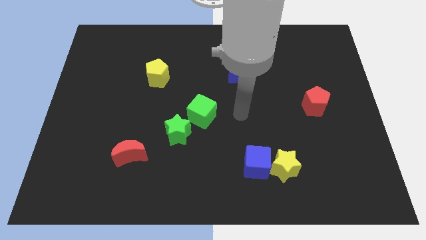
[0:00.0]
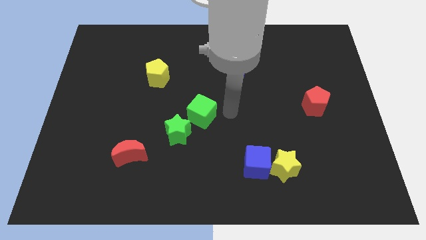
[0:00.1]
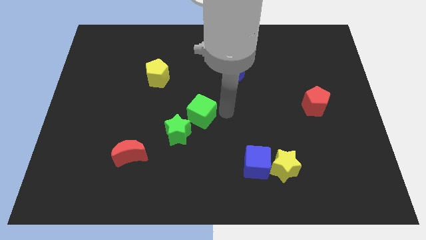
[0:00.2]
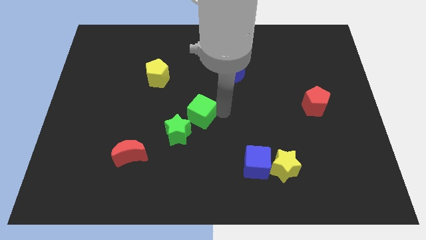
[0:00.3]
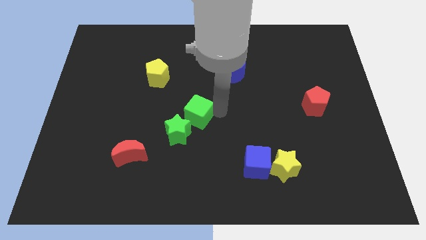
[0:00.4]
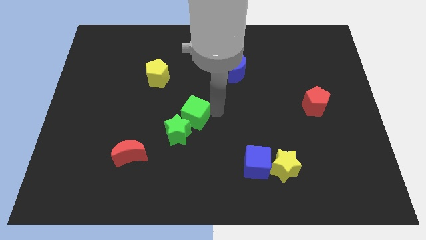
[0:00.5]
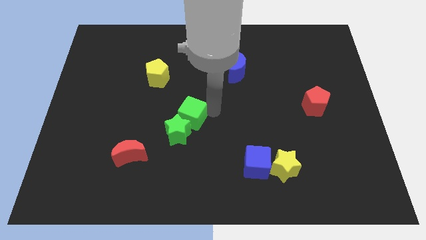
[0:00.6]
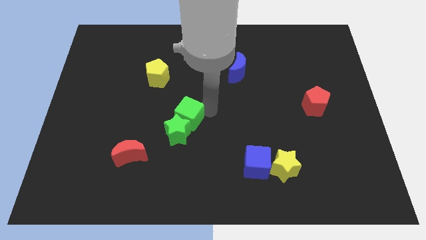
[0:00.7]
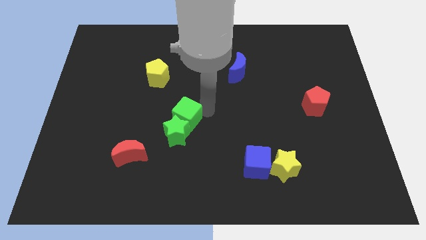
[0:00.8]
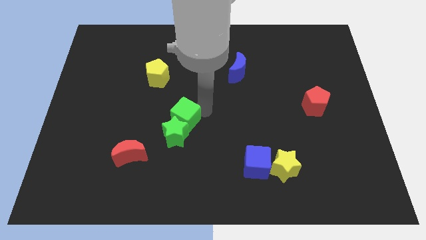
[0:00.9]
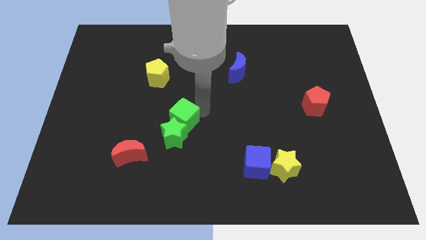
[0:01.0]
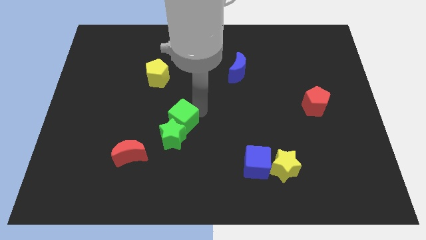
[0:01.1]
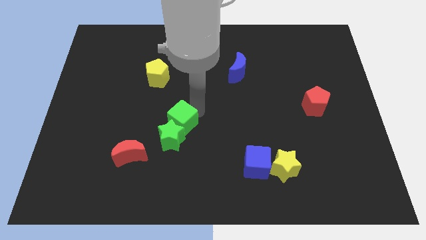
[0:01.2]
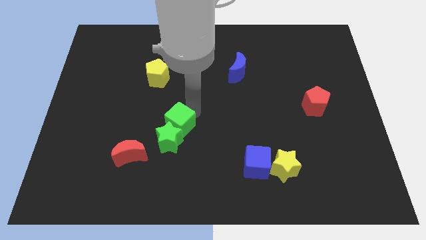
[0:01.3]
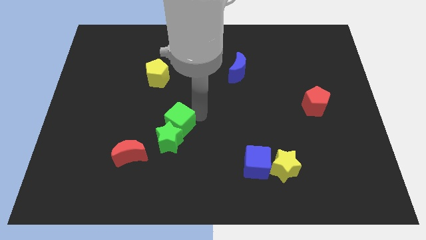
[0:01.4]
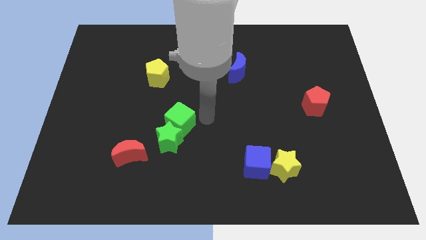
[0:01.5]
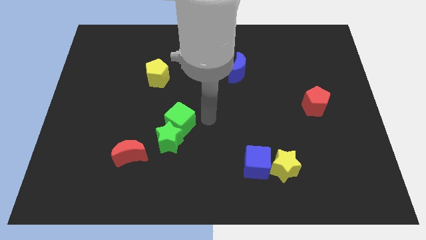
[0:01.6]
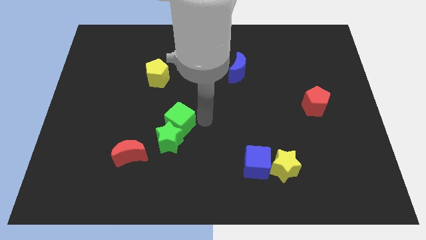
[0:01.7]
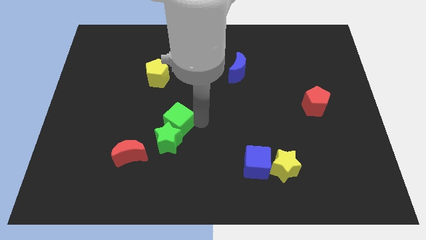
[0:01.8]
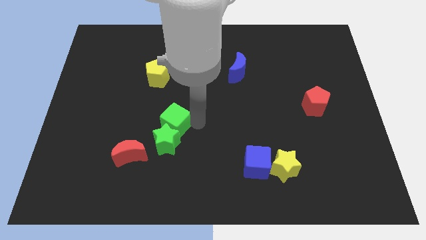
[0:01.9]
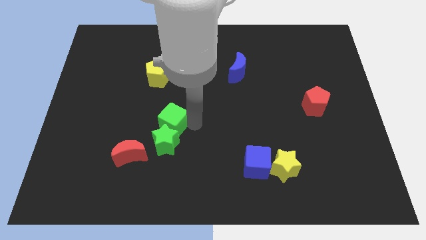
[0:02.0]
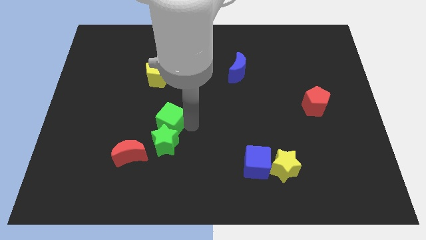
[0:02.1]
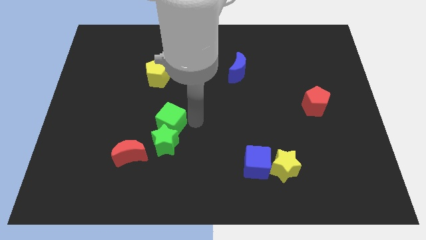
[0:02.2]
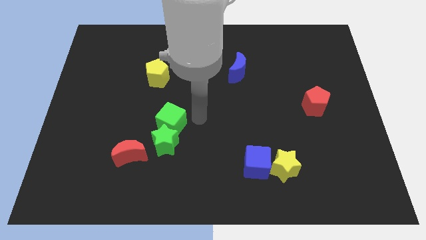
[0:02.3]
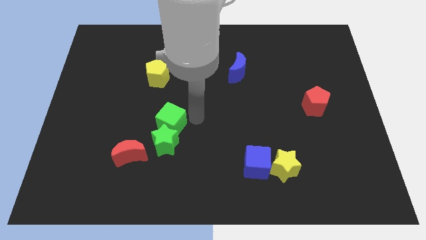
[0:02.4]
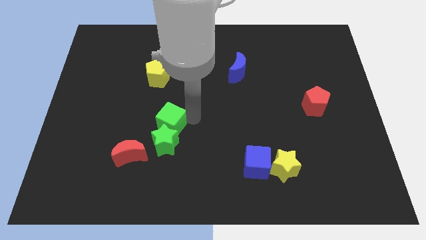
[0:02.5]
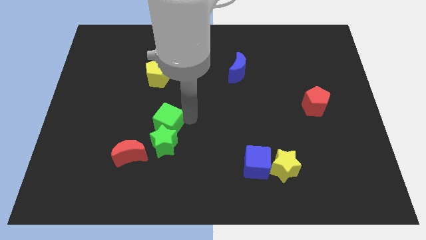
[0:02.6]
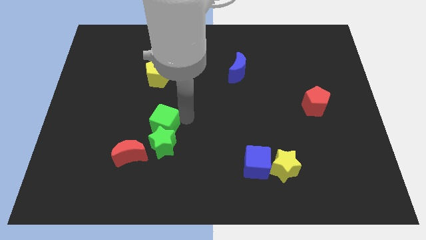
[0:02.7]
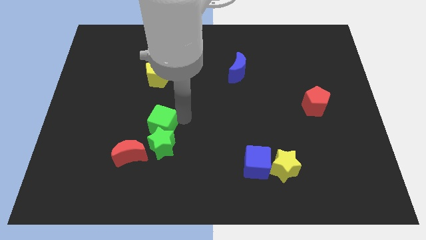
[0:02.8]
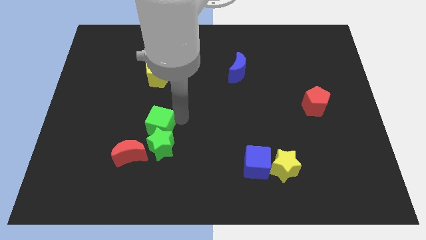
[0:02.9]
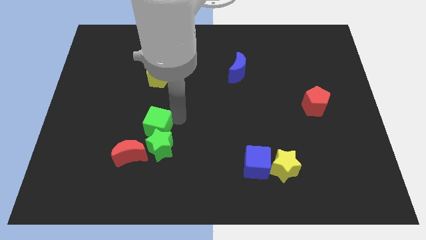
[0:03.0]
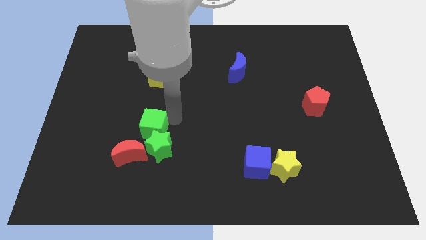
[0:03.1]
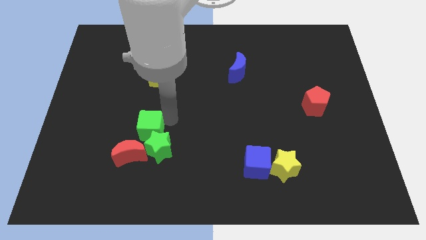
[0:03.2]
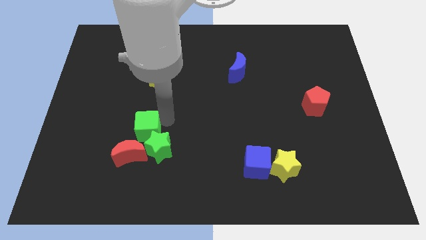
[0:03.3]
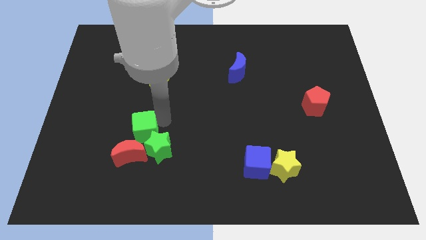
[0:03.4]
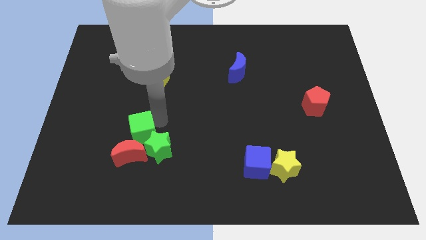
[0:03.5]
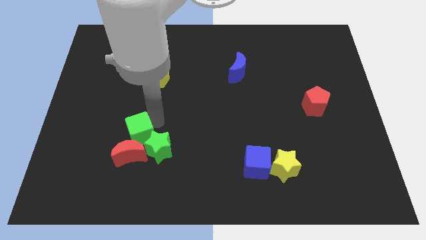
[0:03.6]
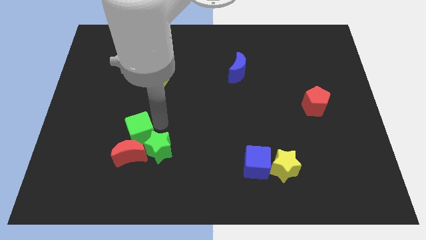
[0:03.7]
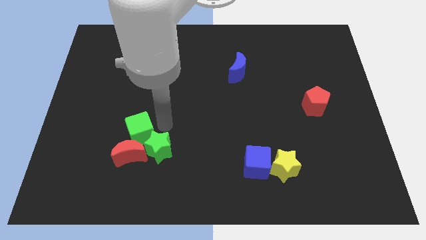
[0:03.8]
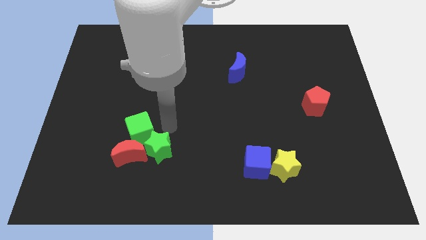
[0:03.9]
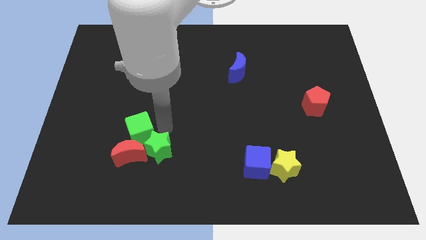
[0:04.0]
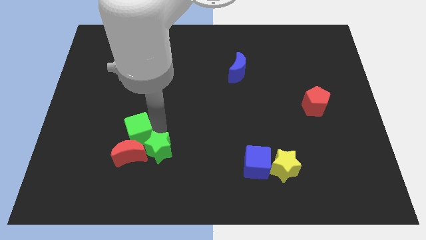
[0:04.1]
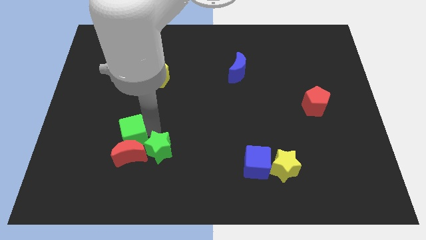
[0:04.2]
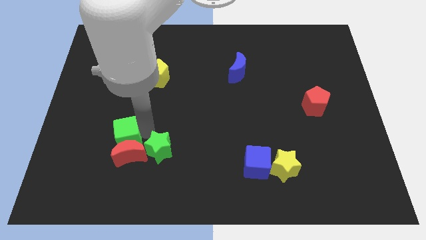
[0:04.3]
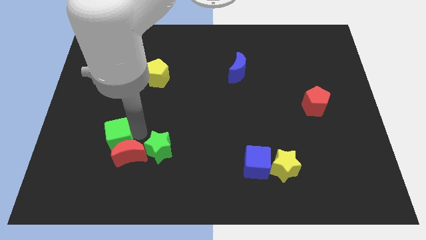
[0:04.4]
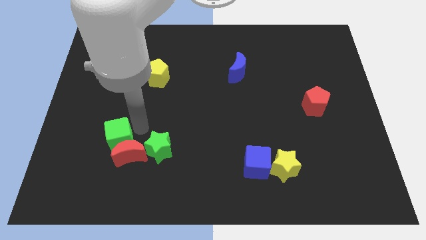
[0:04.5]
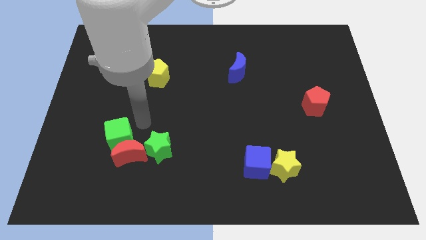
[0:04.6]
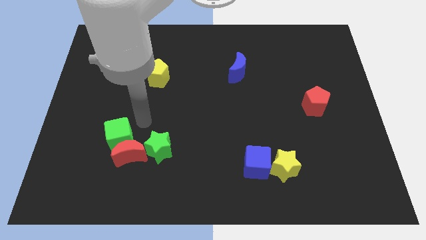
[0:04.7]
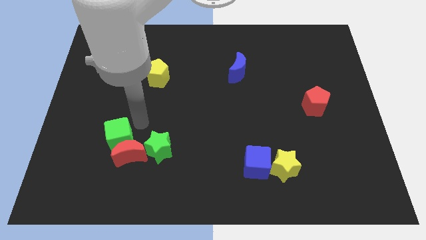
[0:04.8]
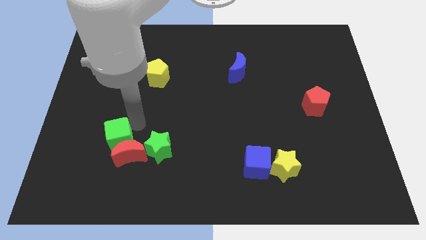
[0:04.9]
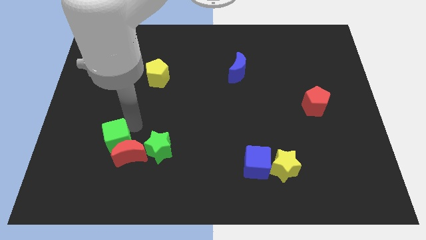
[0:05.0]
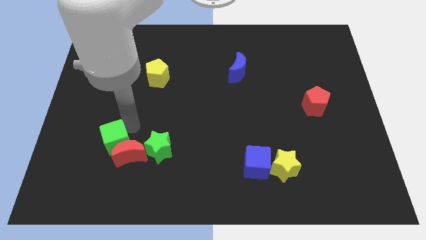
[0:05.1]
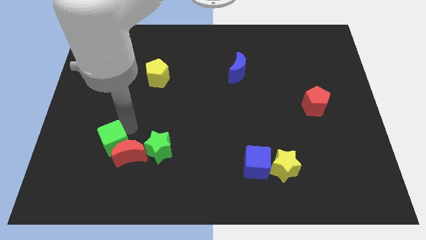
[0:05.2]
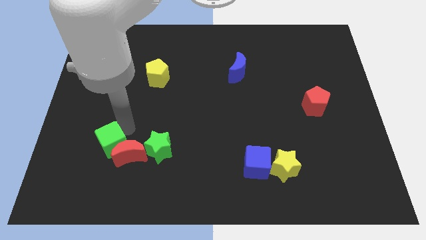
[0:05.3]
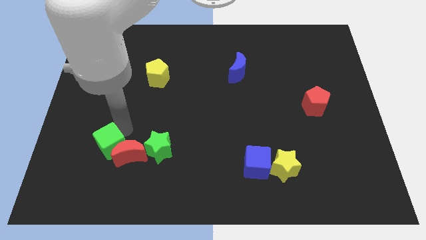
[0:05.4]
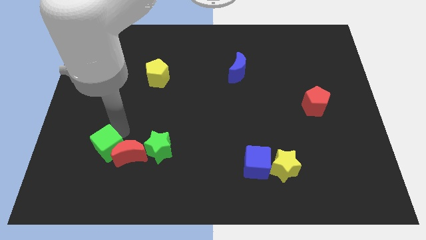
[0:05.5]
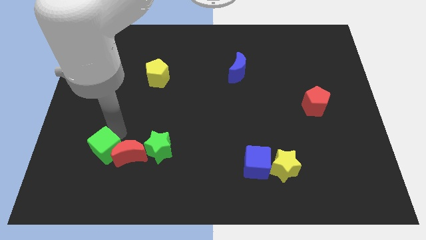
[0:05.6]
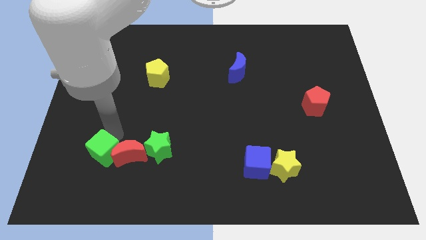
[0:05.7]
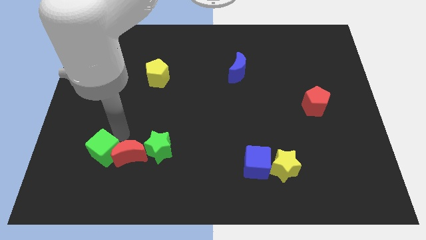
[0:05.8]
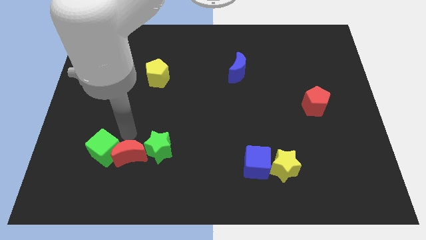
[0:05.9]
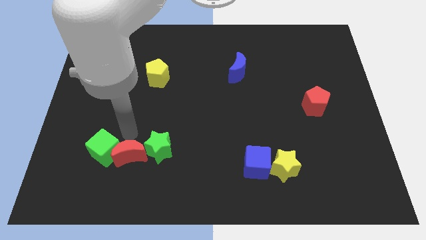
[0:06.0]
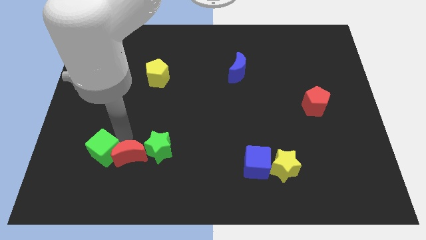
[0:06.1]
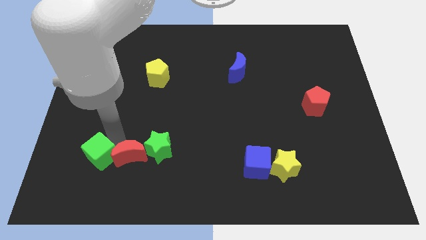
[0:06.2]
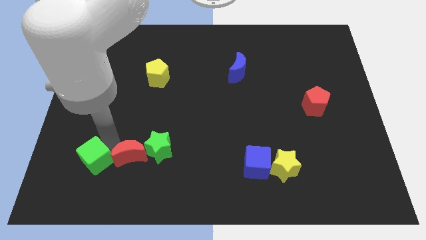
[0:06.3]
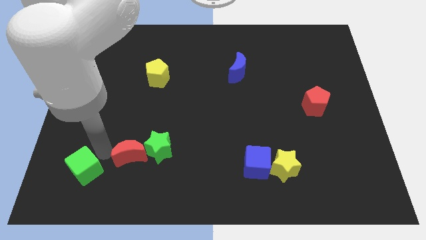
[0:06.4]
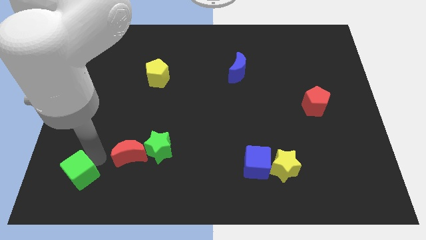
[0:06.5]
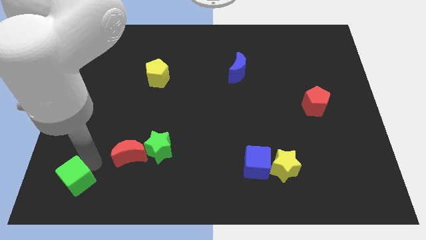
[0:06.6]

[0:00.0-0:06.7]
move the green cube to the lower left corner

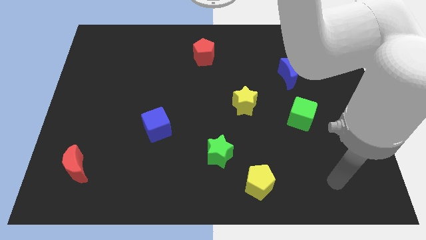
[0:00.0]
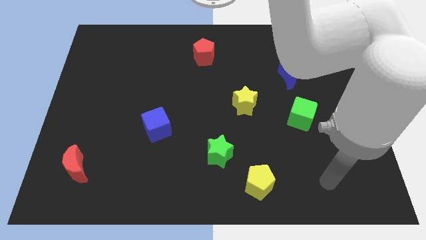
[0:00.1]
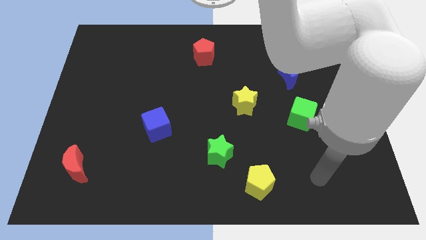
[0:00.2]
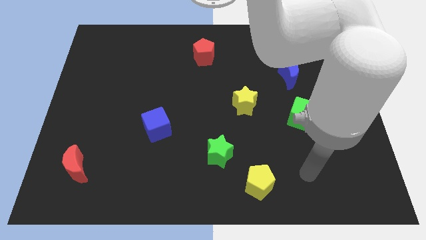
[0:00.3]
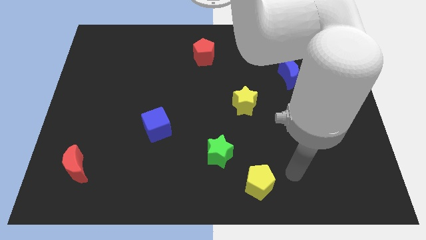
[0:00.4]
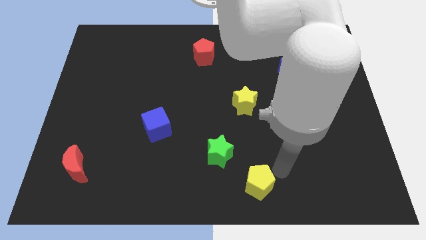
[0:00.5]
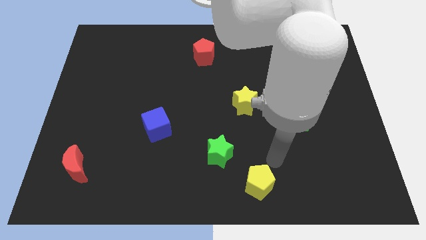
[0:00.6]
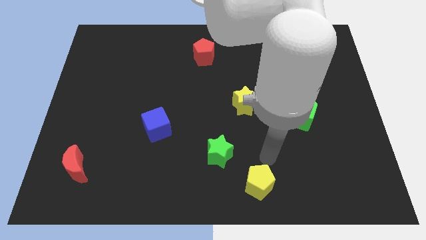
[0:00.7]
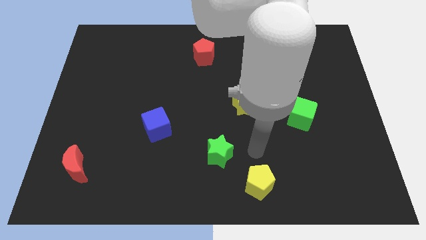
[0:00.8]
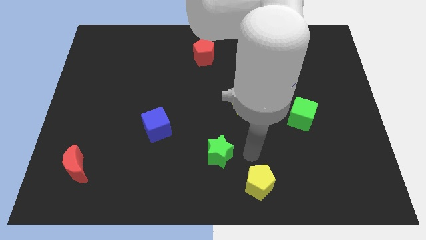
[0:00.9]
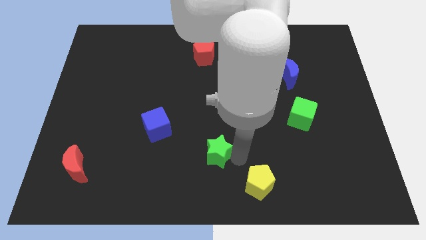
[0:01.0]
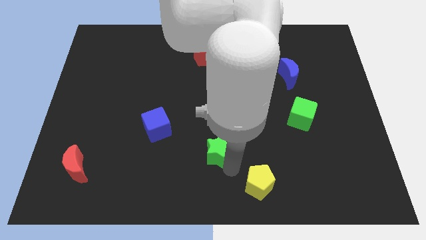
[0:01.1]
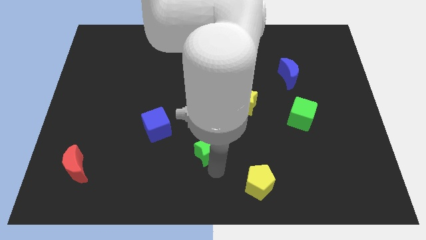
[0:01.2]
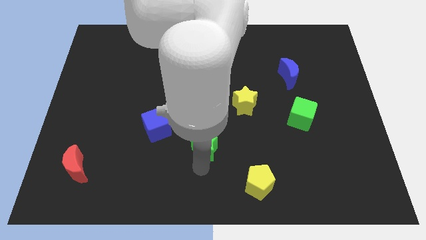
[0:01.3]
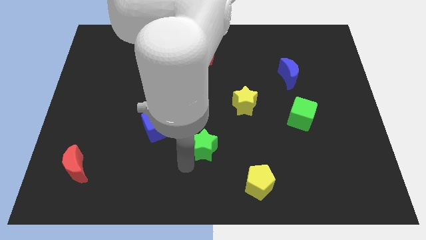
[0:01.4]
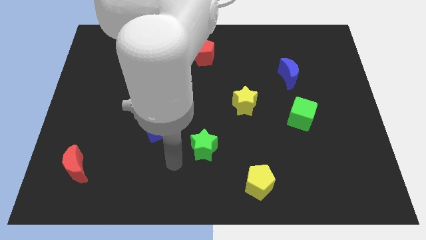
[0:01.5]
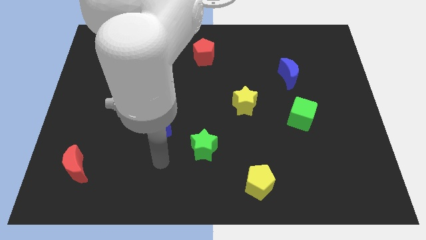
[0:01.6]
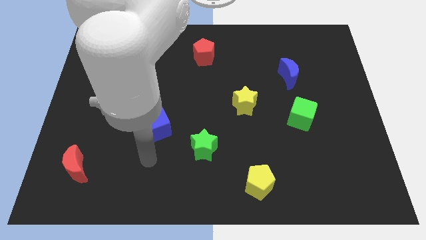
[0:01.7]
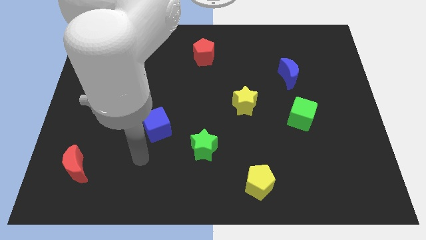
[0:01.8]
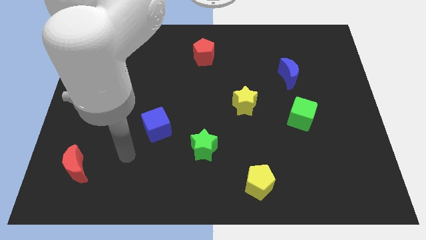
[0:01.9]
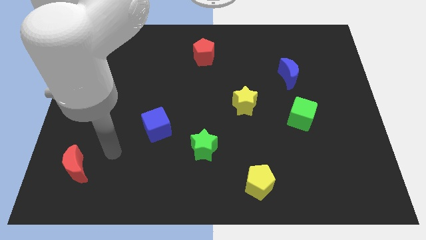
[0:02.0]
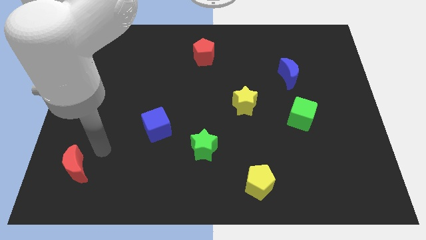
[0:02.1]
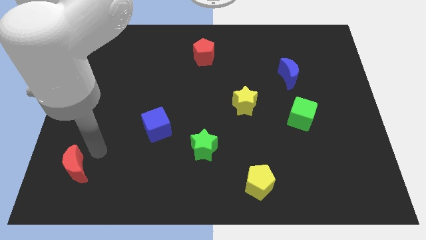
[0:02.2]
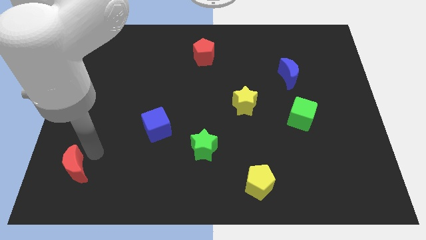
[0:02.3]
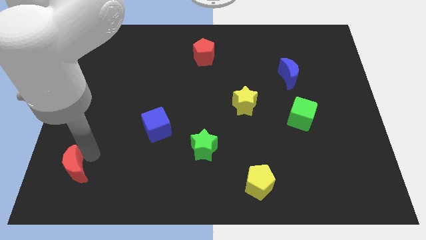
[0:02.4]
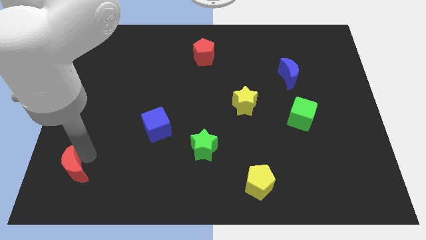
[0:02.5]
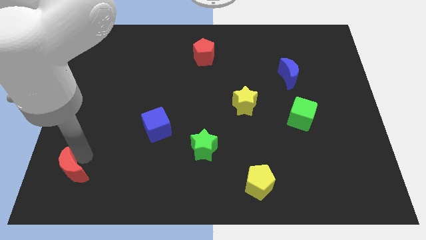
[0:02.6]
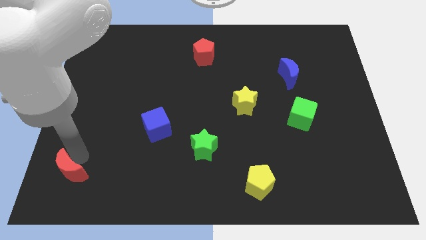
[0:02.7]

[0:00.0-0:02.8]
move the red moon to the bottom left
